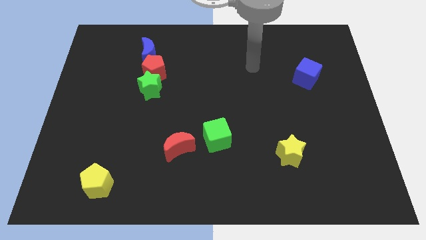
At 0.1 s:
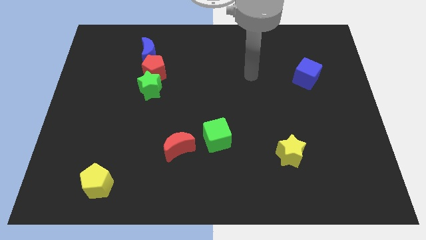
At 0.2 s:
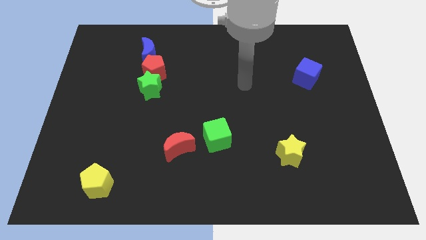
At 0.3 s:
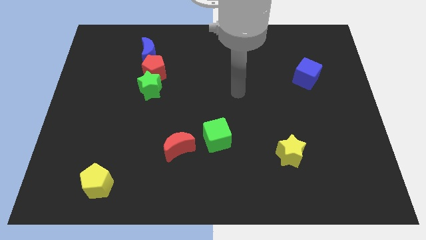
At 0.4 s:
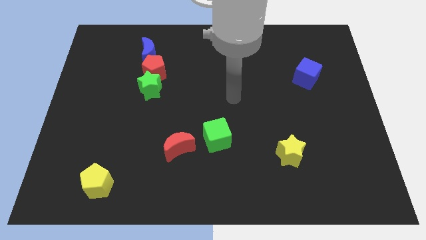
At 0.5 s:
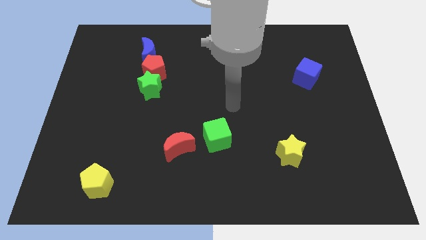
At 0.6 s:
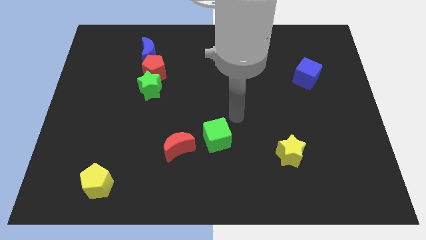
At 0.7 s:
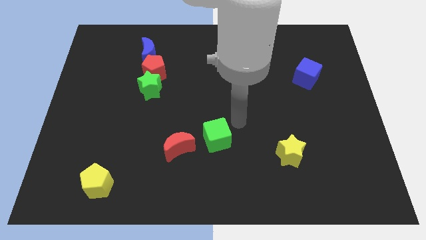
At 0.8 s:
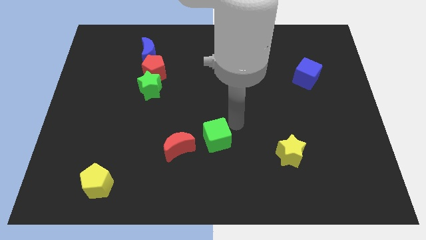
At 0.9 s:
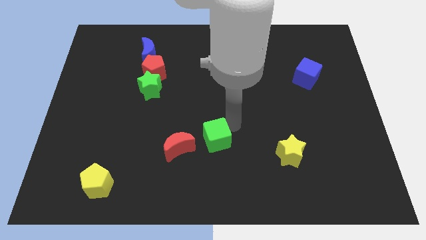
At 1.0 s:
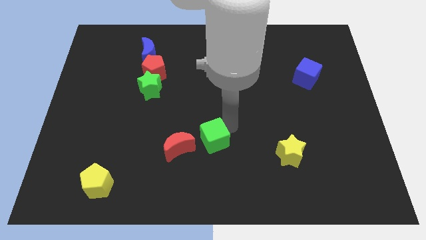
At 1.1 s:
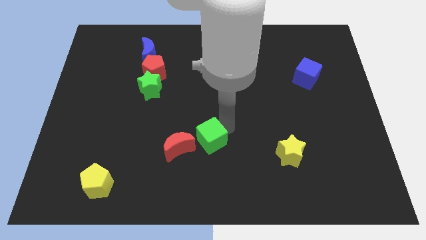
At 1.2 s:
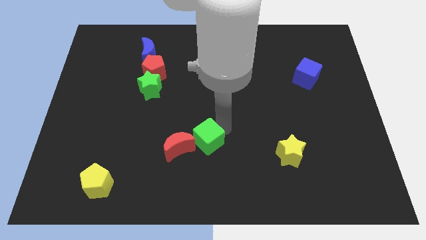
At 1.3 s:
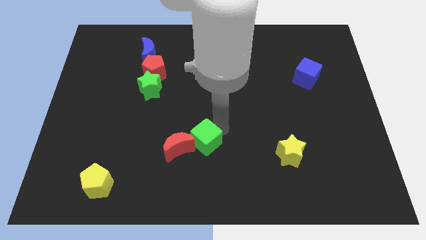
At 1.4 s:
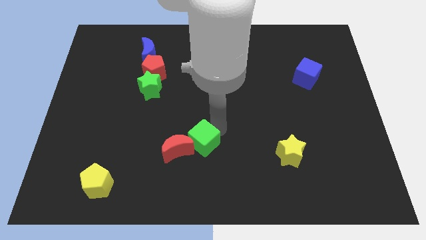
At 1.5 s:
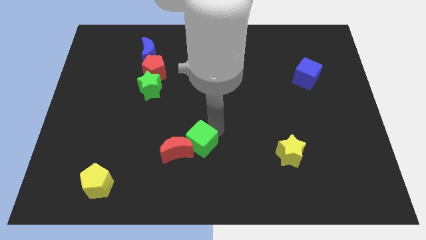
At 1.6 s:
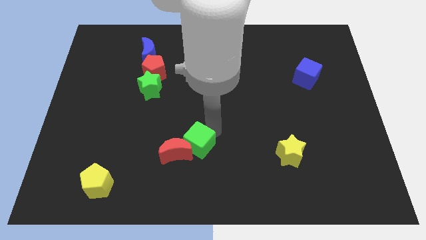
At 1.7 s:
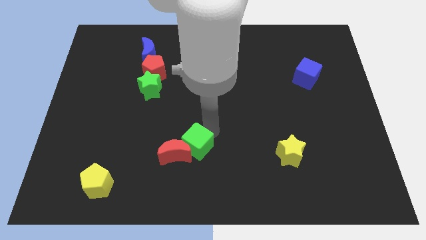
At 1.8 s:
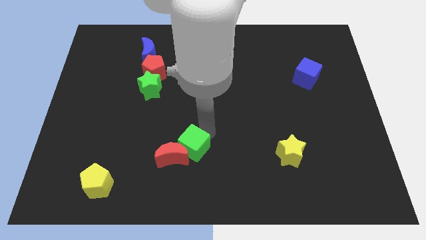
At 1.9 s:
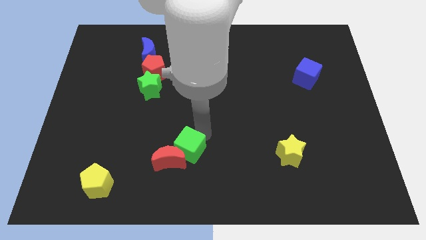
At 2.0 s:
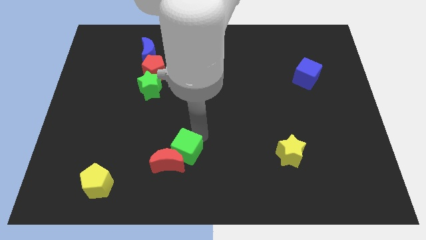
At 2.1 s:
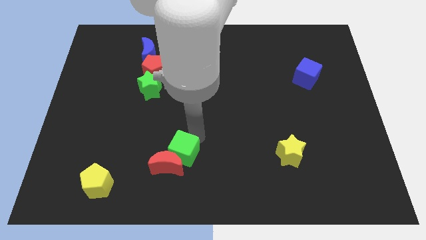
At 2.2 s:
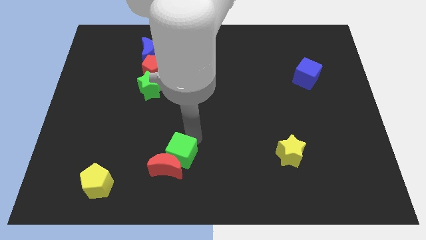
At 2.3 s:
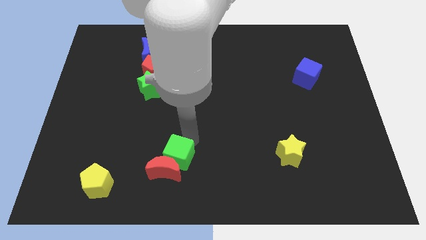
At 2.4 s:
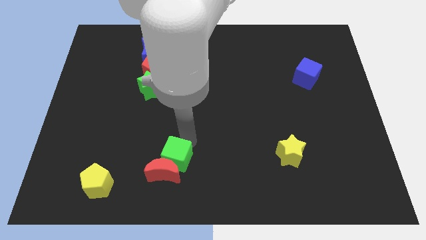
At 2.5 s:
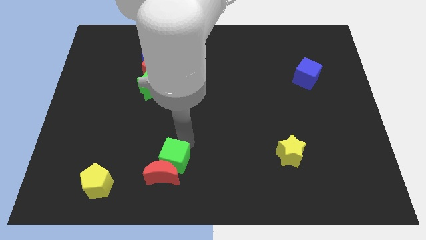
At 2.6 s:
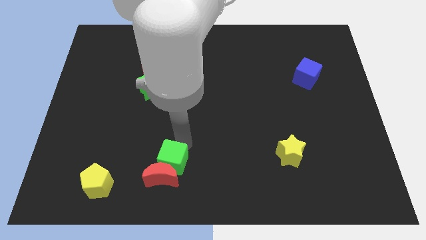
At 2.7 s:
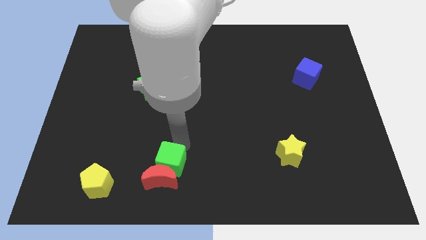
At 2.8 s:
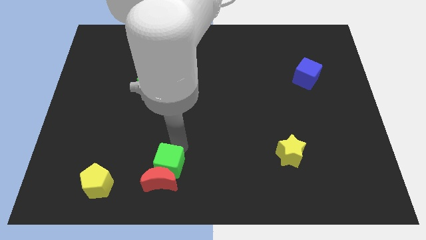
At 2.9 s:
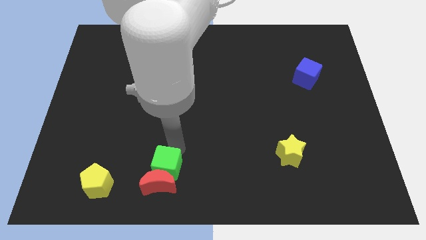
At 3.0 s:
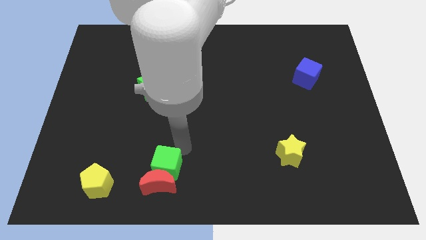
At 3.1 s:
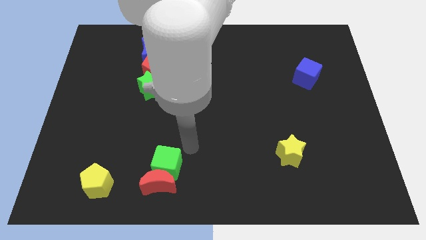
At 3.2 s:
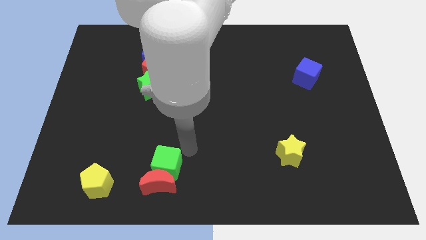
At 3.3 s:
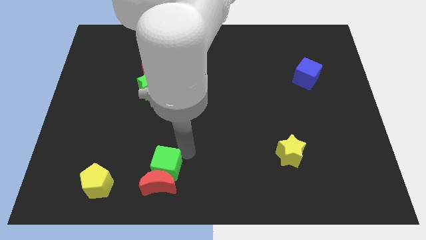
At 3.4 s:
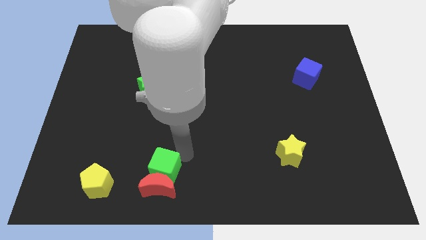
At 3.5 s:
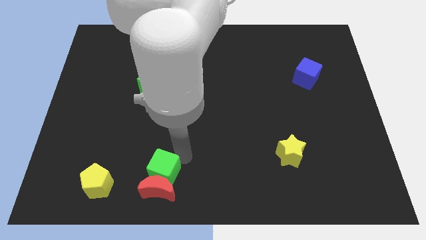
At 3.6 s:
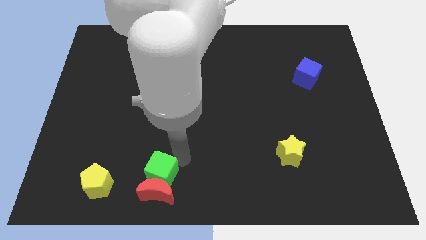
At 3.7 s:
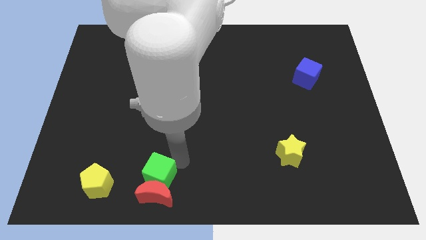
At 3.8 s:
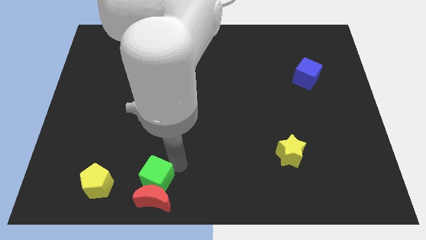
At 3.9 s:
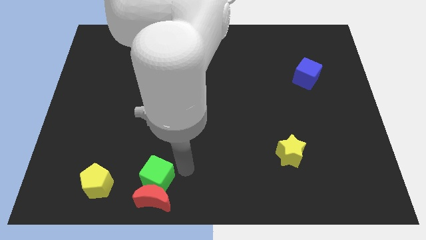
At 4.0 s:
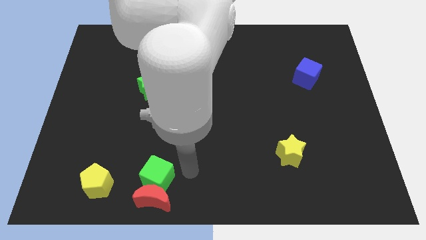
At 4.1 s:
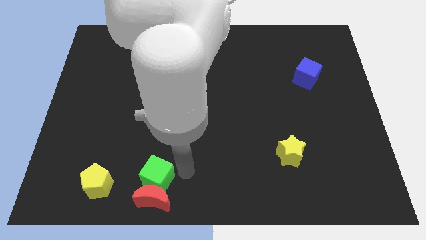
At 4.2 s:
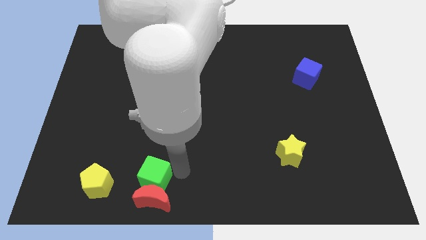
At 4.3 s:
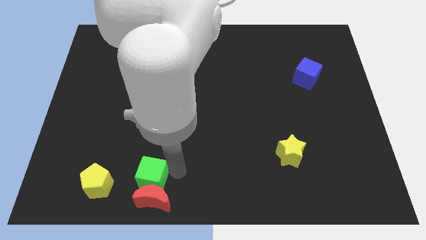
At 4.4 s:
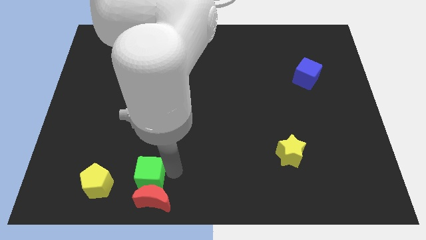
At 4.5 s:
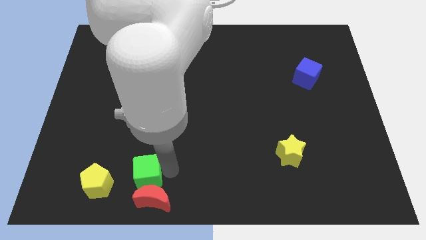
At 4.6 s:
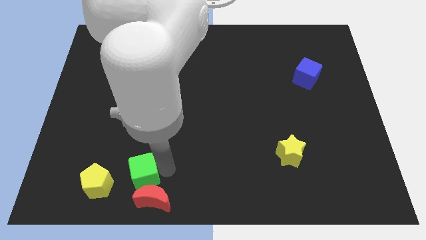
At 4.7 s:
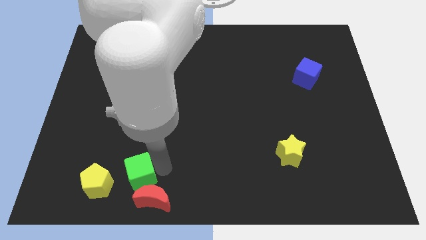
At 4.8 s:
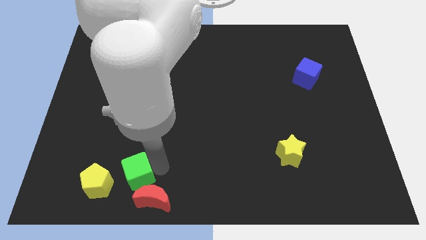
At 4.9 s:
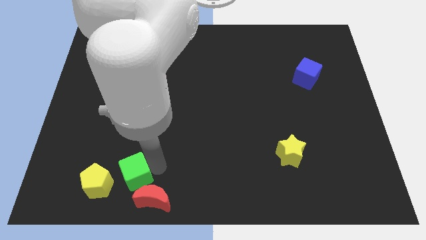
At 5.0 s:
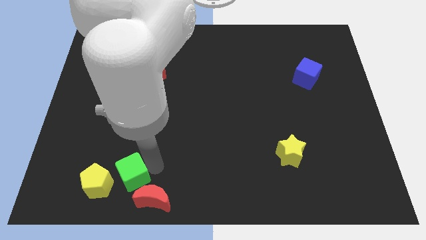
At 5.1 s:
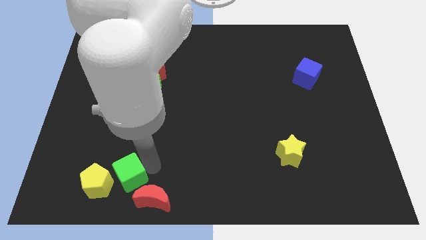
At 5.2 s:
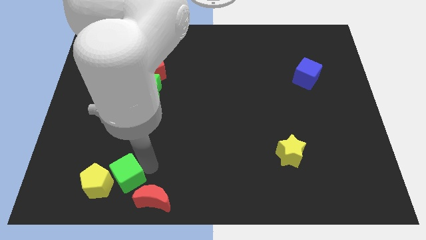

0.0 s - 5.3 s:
push the green cube to the yellow pentagon

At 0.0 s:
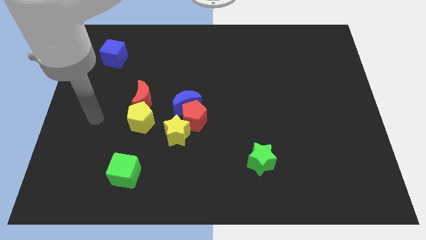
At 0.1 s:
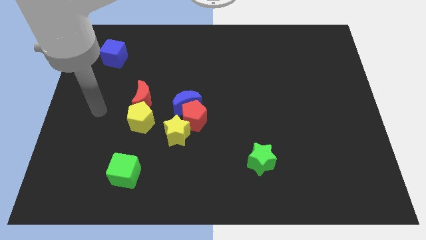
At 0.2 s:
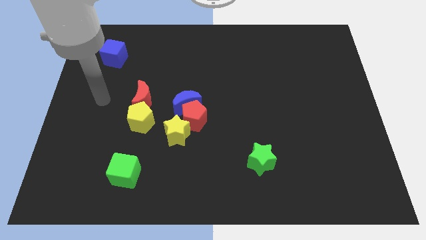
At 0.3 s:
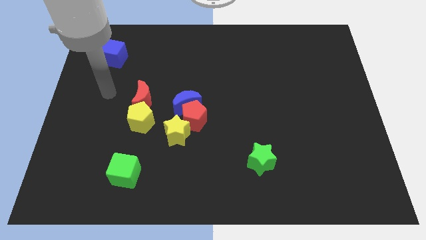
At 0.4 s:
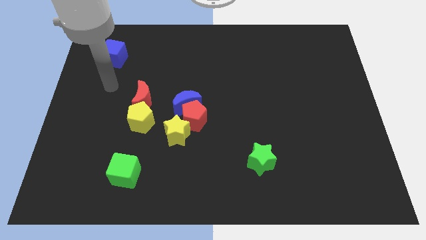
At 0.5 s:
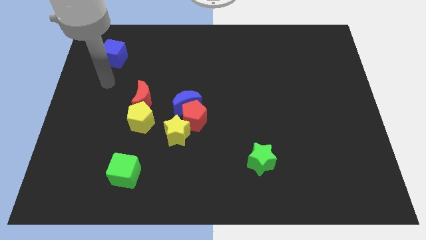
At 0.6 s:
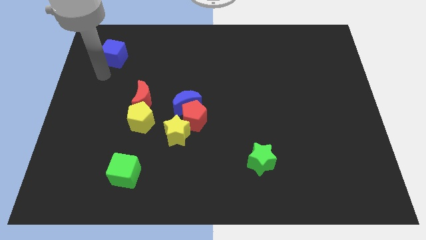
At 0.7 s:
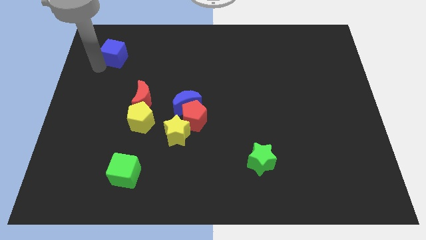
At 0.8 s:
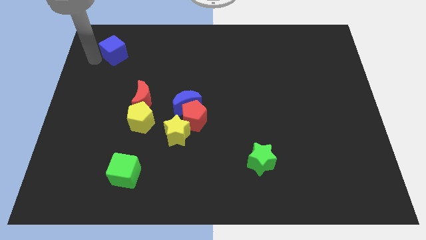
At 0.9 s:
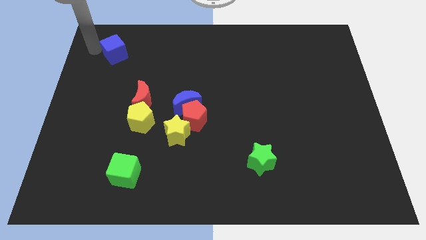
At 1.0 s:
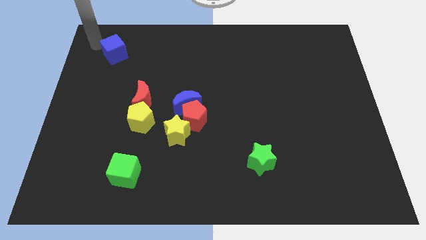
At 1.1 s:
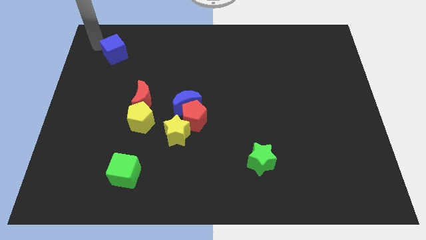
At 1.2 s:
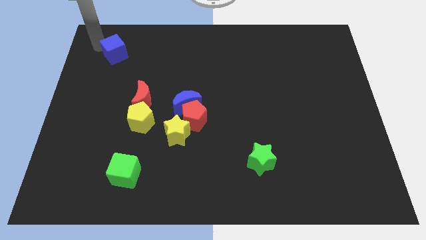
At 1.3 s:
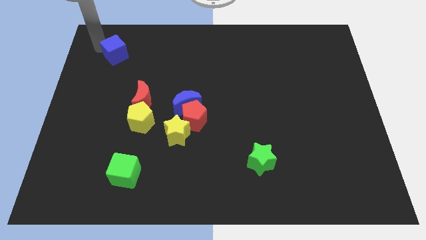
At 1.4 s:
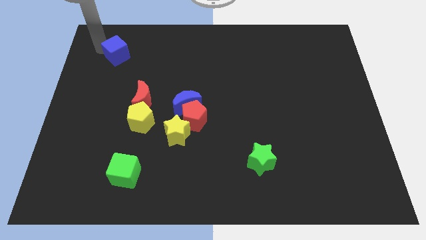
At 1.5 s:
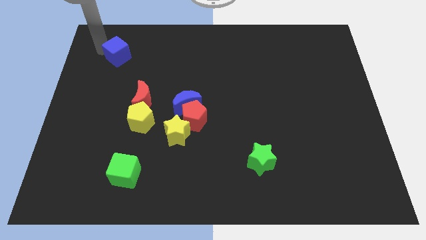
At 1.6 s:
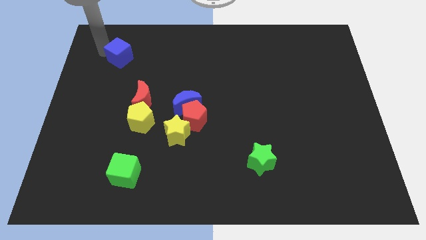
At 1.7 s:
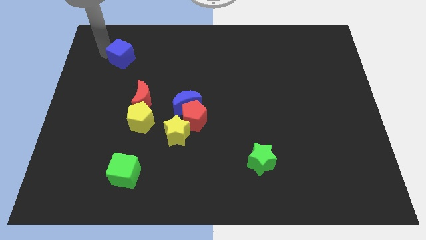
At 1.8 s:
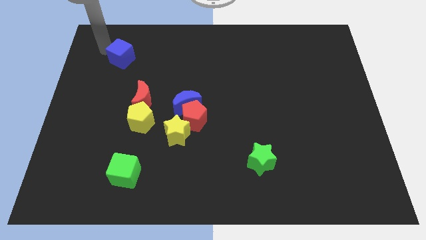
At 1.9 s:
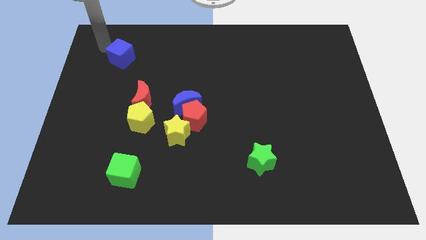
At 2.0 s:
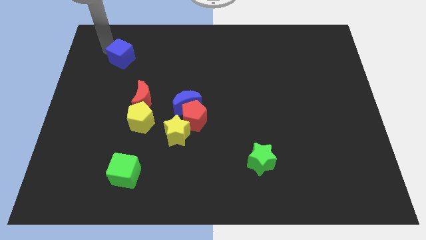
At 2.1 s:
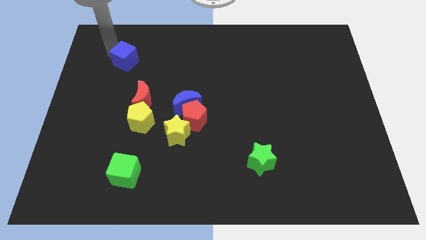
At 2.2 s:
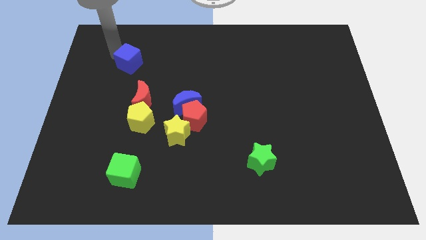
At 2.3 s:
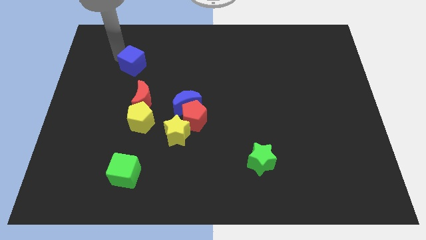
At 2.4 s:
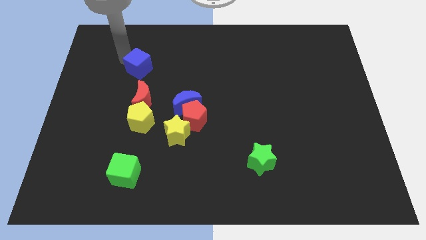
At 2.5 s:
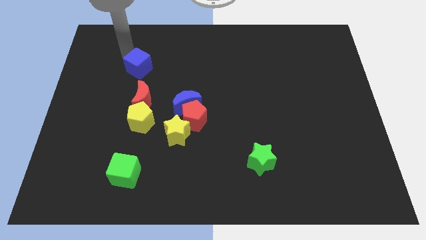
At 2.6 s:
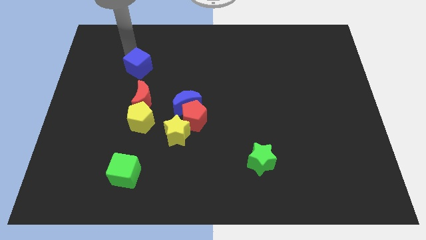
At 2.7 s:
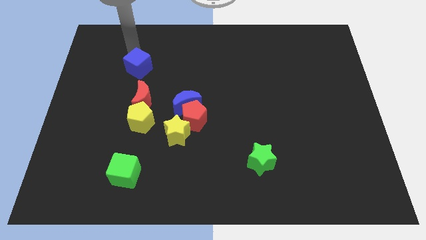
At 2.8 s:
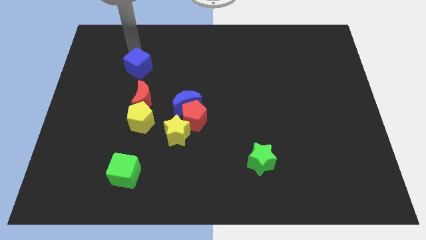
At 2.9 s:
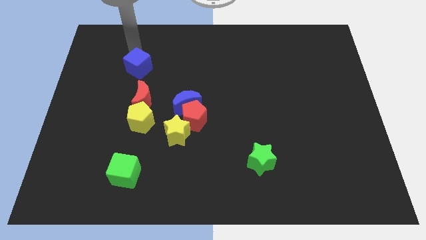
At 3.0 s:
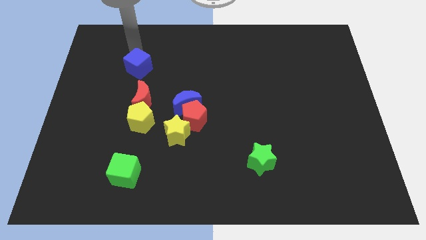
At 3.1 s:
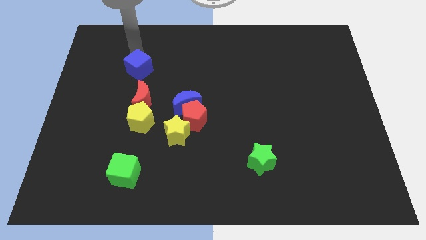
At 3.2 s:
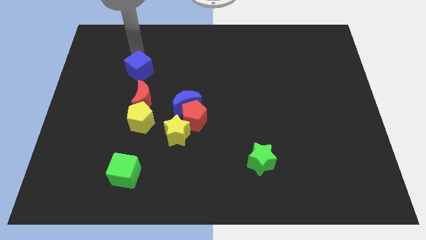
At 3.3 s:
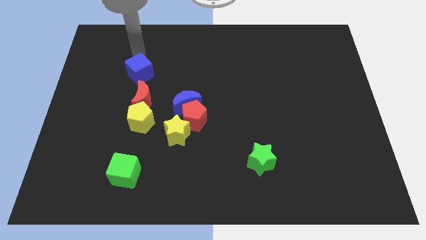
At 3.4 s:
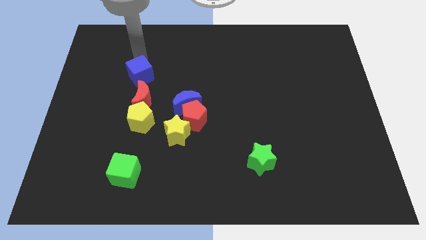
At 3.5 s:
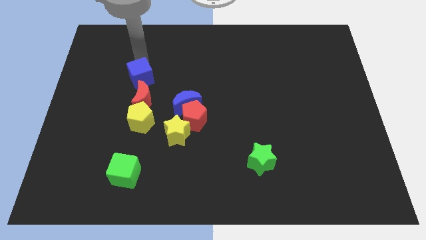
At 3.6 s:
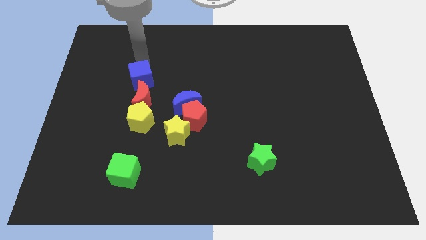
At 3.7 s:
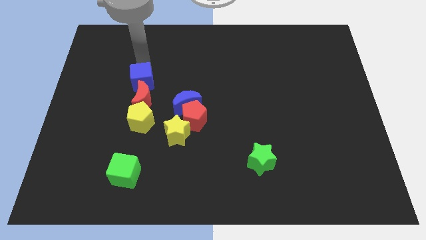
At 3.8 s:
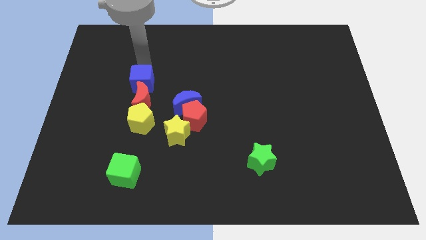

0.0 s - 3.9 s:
put the blue cube towards the red moon
